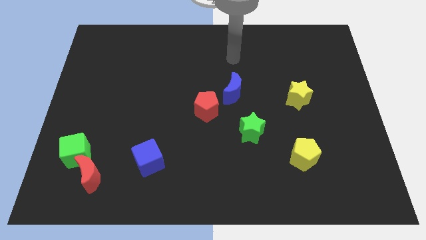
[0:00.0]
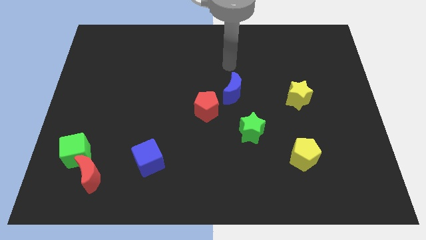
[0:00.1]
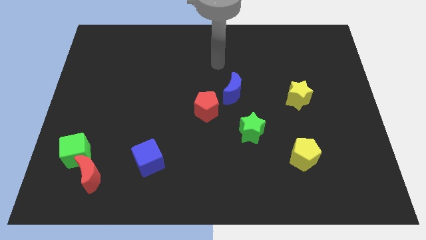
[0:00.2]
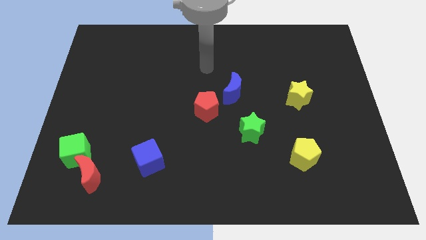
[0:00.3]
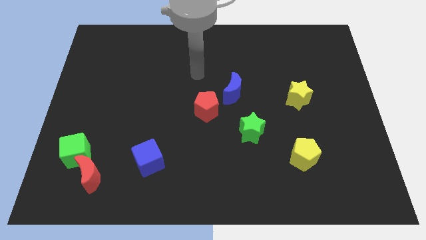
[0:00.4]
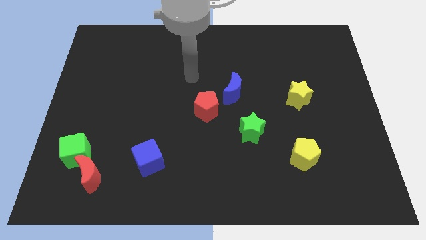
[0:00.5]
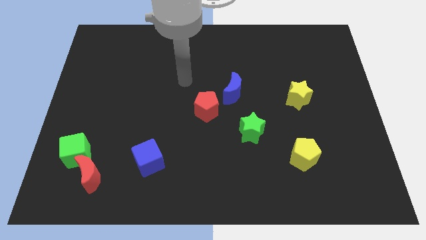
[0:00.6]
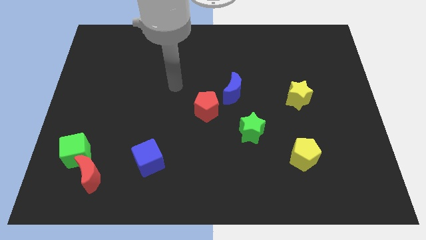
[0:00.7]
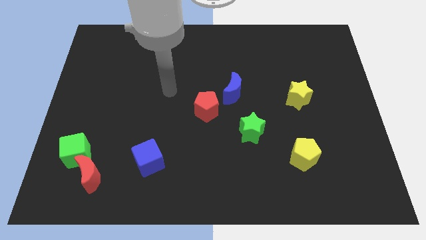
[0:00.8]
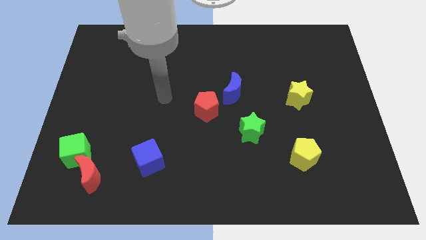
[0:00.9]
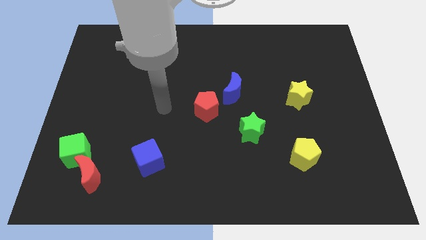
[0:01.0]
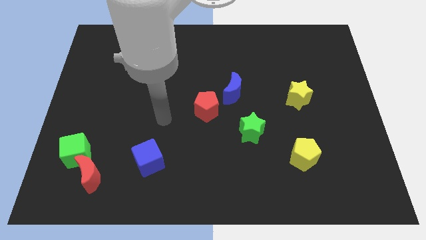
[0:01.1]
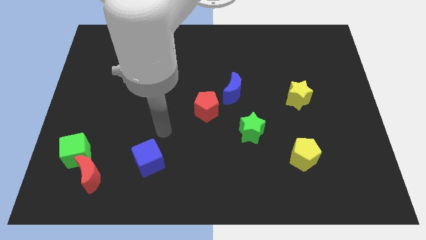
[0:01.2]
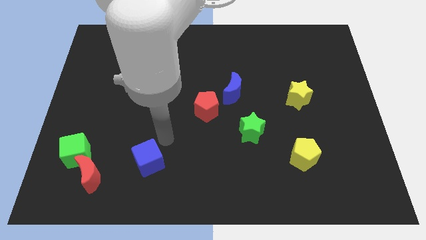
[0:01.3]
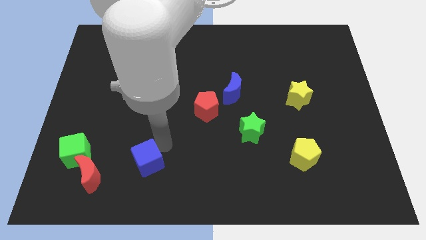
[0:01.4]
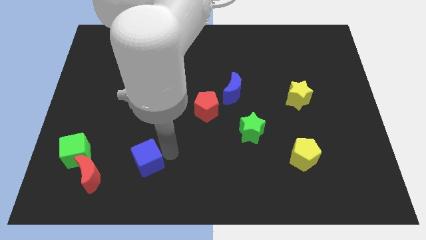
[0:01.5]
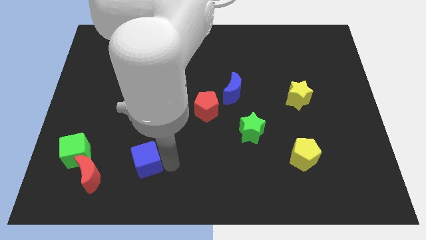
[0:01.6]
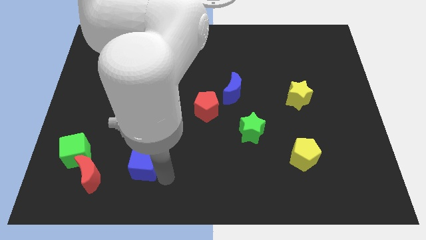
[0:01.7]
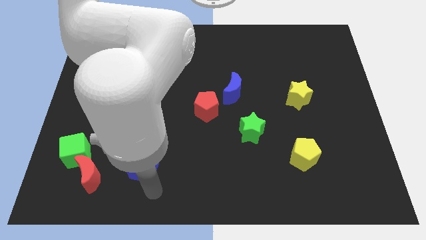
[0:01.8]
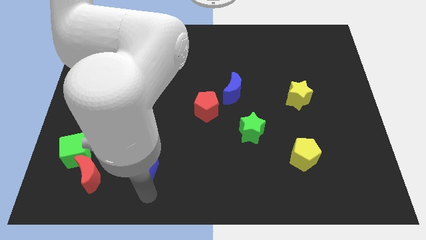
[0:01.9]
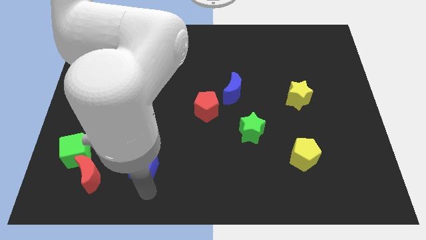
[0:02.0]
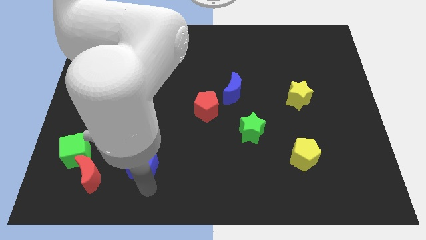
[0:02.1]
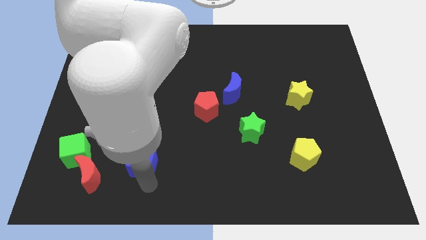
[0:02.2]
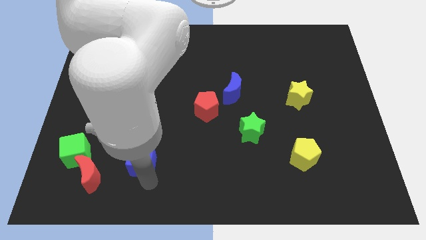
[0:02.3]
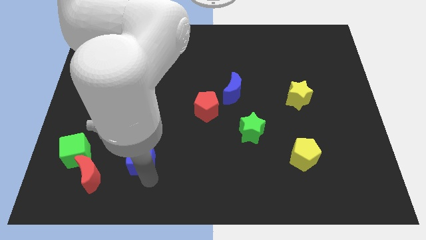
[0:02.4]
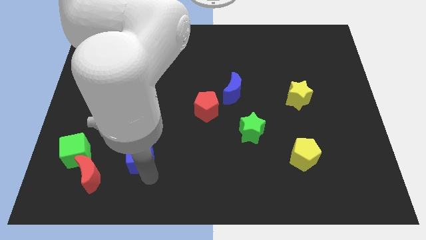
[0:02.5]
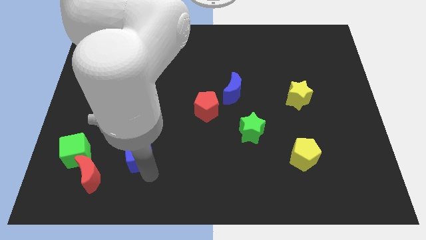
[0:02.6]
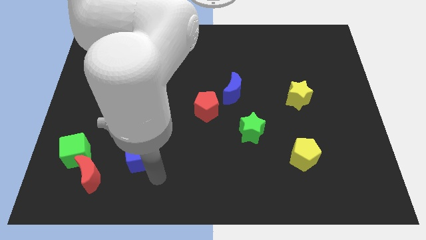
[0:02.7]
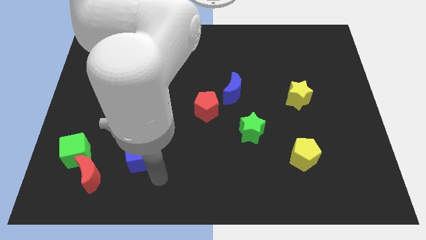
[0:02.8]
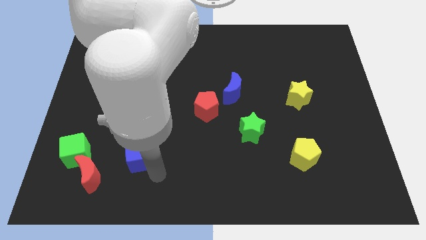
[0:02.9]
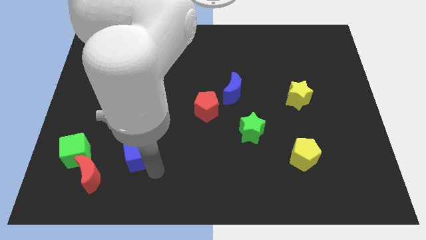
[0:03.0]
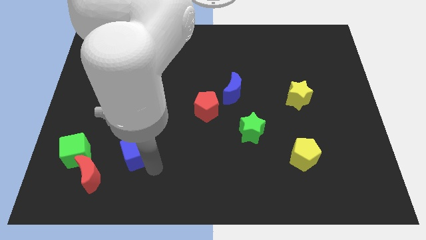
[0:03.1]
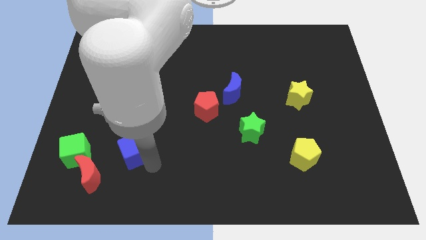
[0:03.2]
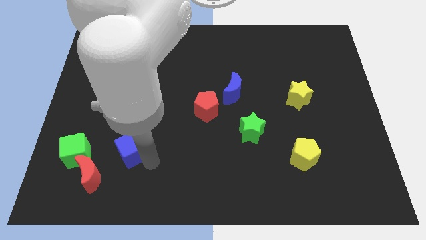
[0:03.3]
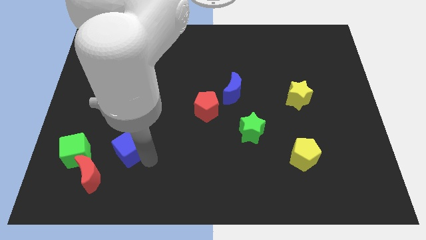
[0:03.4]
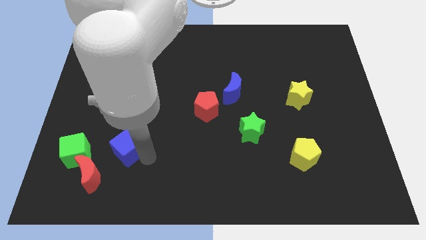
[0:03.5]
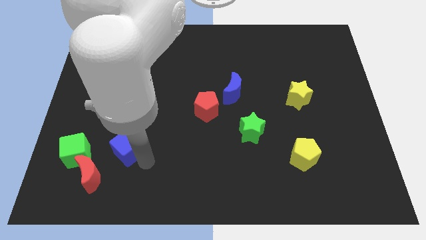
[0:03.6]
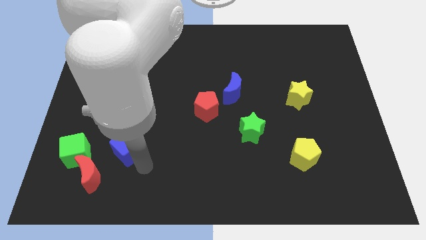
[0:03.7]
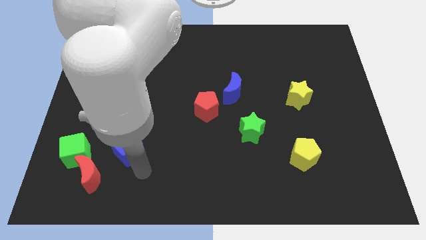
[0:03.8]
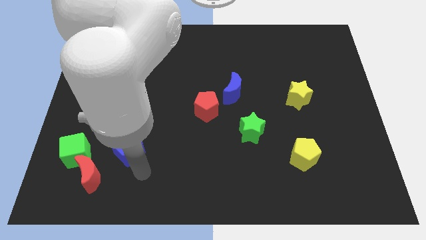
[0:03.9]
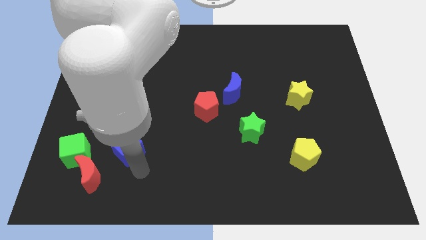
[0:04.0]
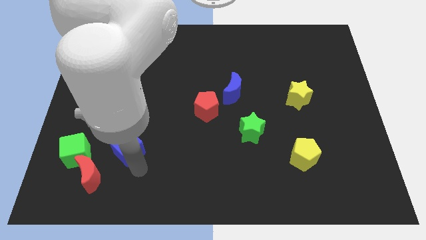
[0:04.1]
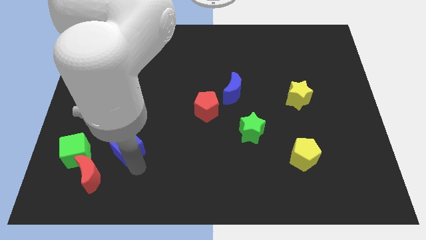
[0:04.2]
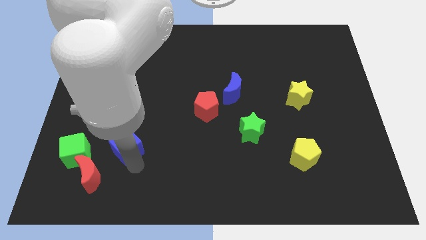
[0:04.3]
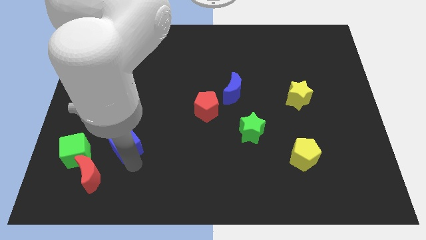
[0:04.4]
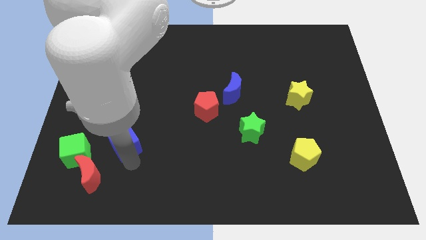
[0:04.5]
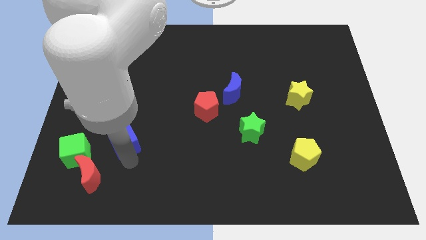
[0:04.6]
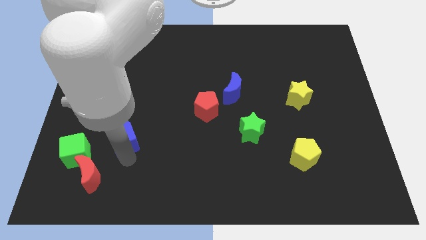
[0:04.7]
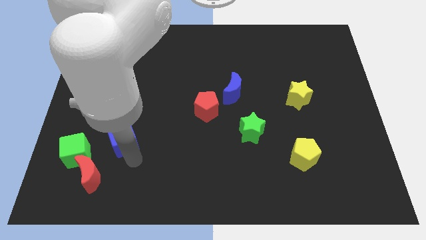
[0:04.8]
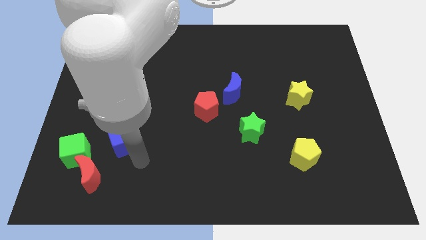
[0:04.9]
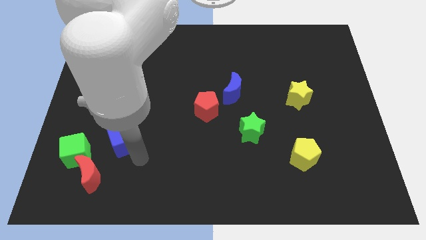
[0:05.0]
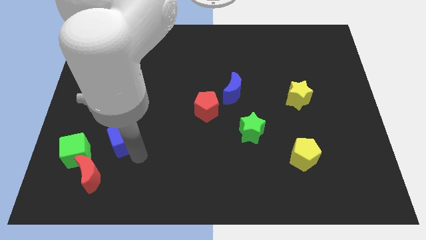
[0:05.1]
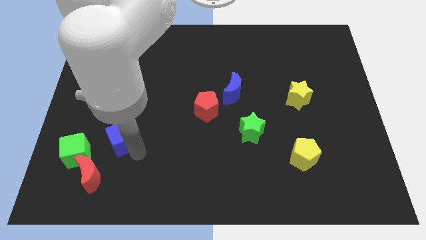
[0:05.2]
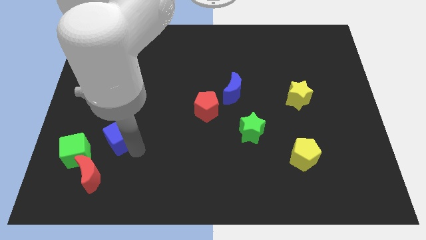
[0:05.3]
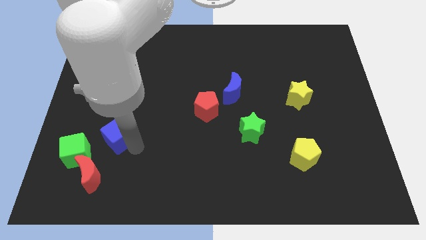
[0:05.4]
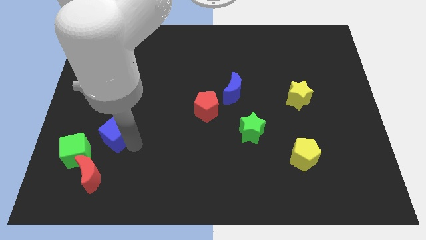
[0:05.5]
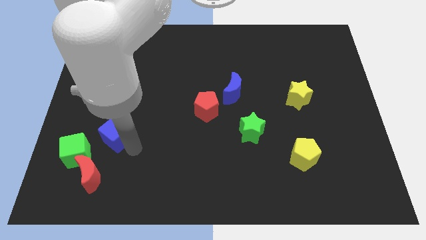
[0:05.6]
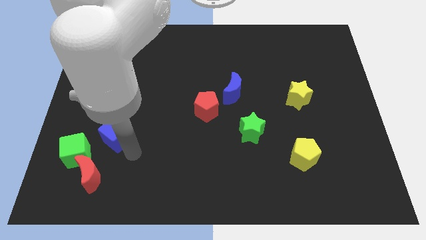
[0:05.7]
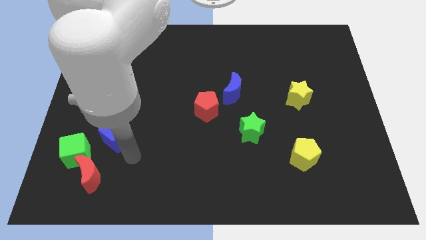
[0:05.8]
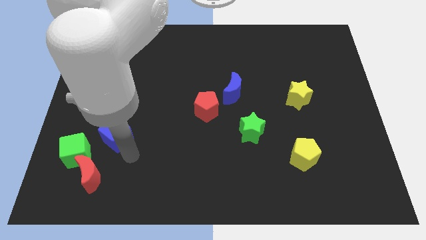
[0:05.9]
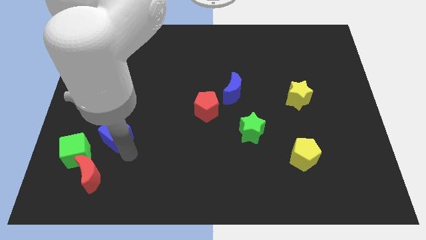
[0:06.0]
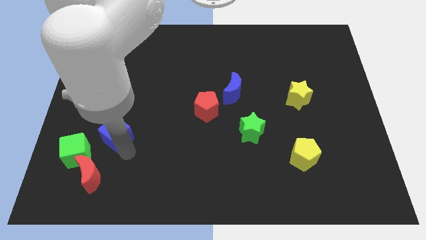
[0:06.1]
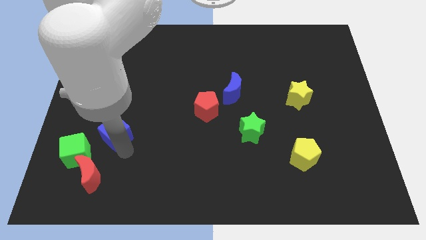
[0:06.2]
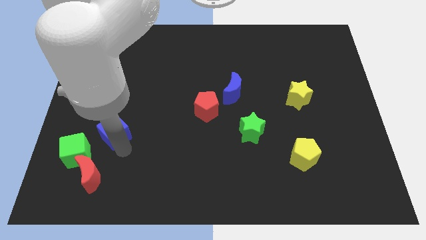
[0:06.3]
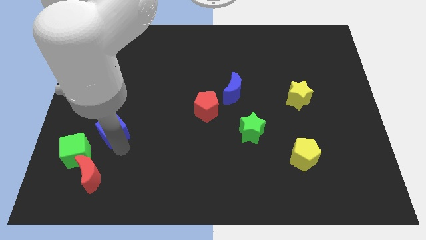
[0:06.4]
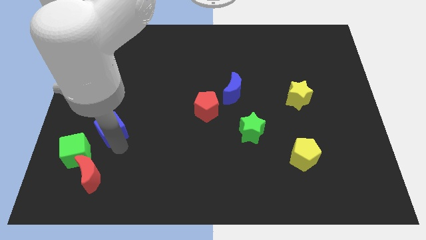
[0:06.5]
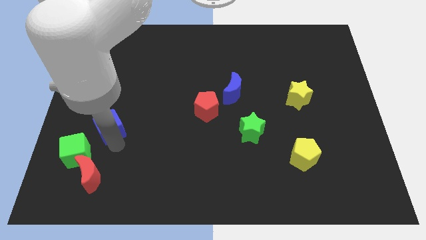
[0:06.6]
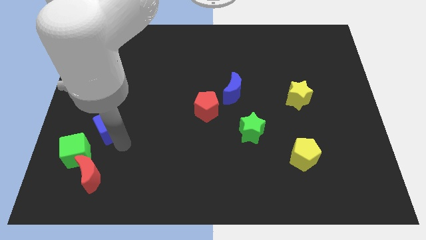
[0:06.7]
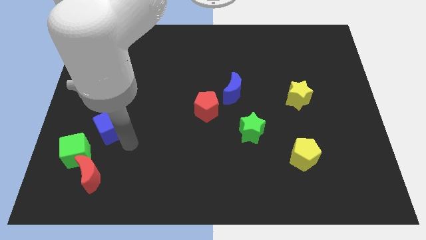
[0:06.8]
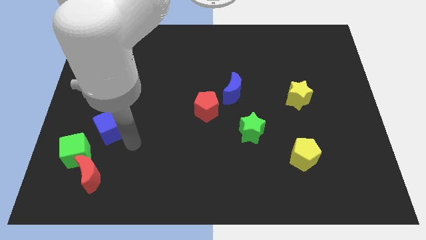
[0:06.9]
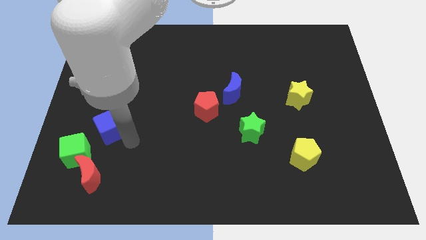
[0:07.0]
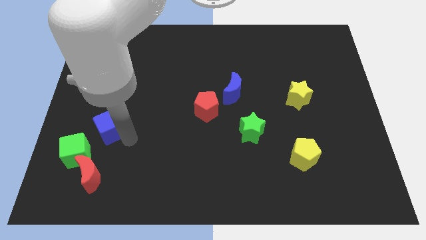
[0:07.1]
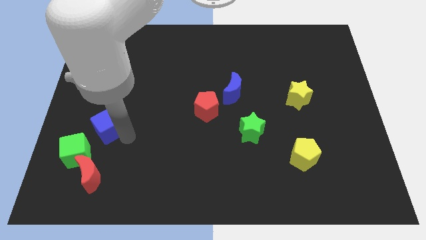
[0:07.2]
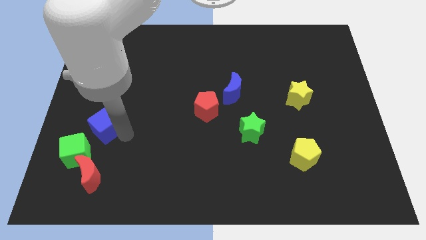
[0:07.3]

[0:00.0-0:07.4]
push the blue cube to the top side of the green cube
